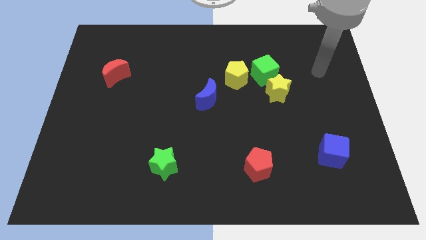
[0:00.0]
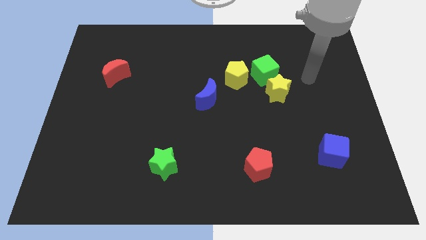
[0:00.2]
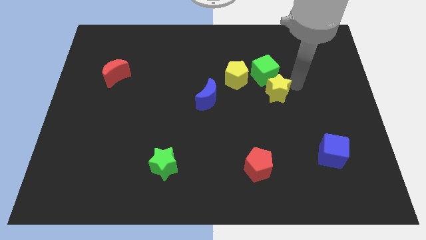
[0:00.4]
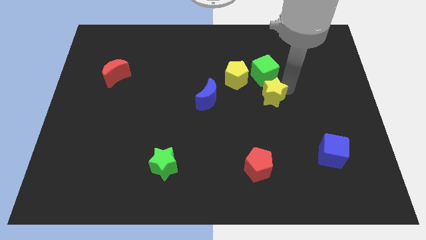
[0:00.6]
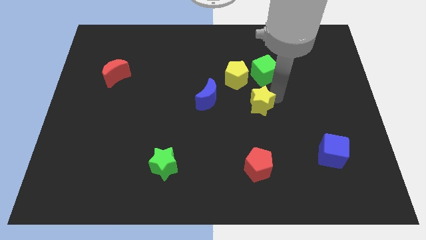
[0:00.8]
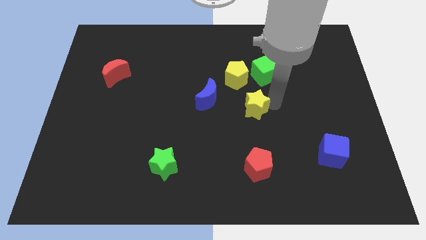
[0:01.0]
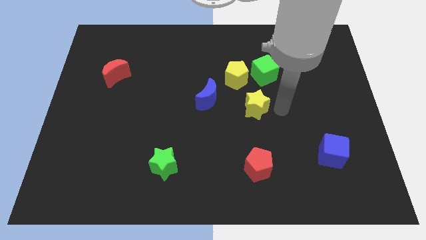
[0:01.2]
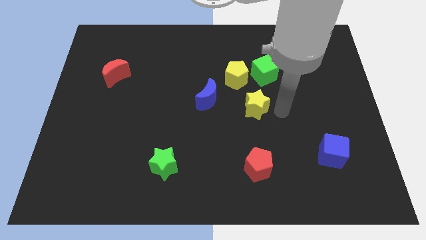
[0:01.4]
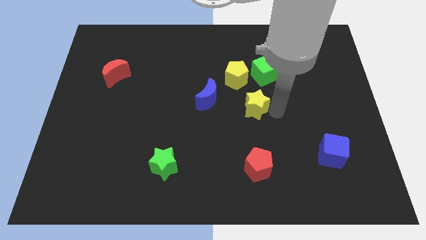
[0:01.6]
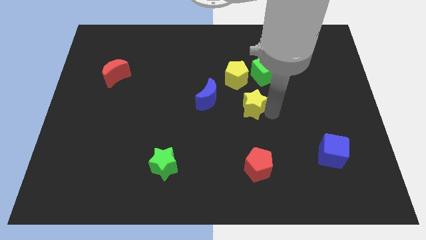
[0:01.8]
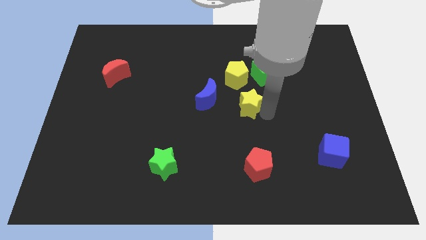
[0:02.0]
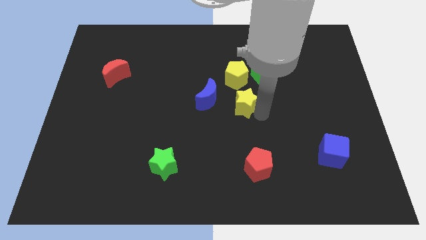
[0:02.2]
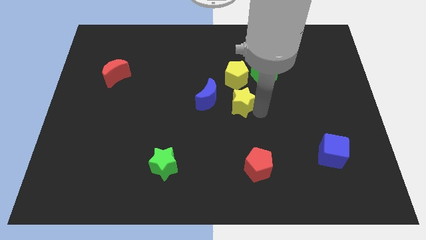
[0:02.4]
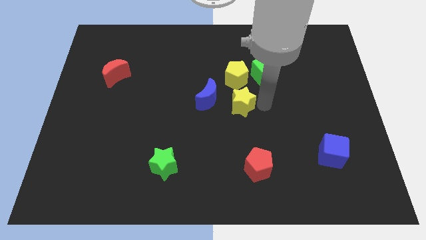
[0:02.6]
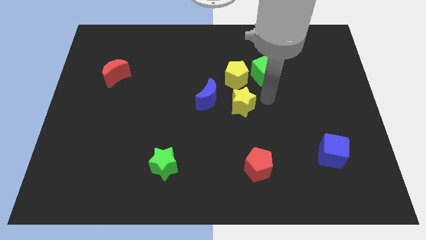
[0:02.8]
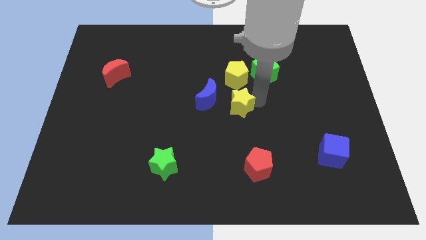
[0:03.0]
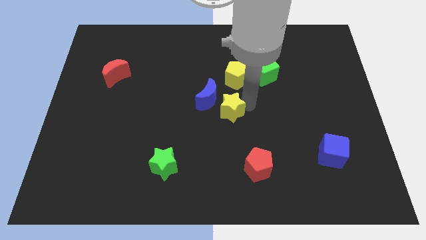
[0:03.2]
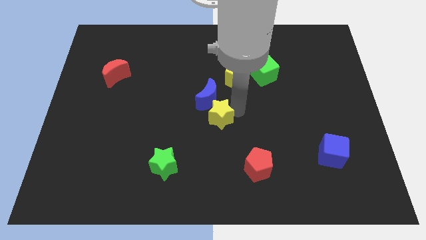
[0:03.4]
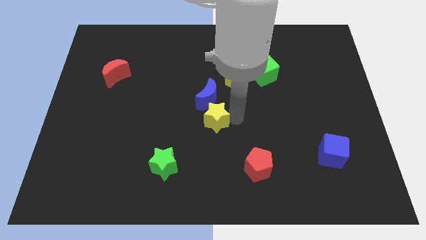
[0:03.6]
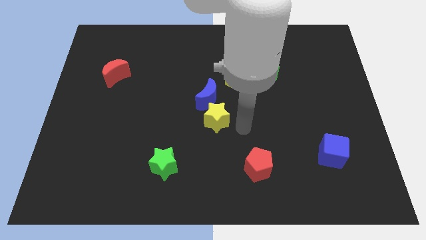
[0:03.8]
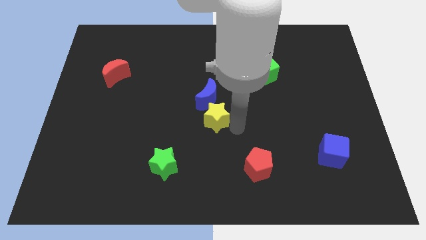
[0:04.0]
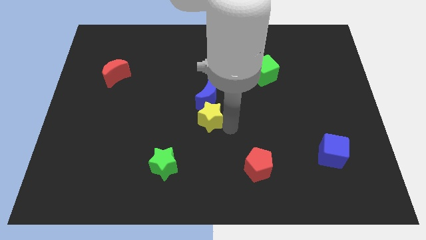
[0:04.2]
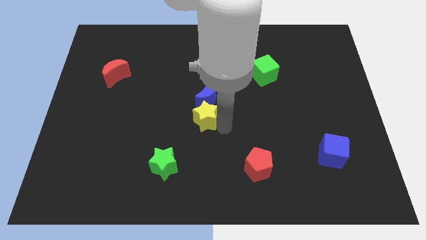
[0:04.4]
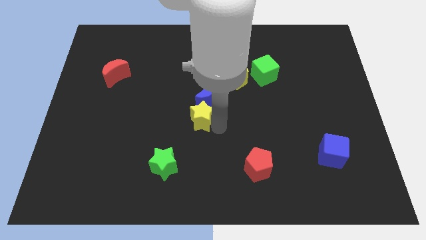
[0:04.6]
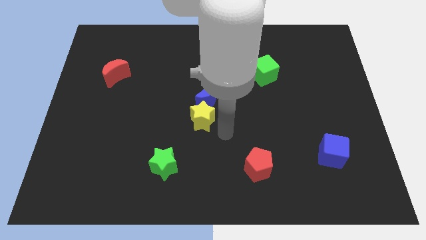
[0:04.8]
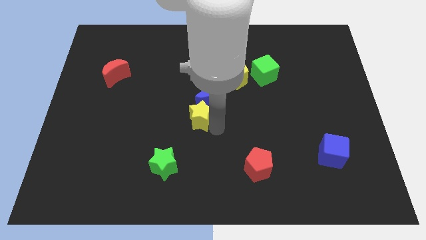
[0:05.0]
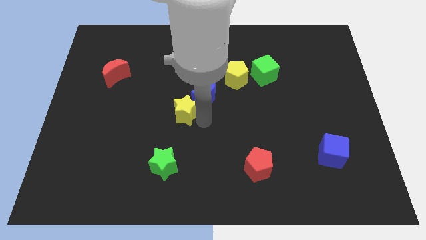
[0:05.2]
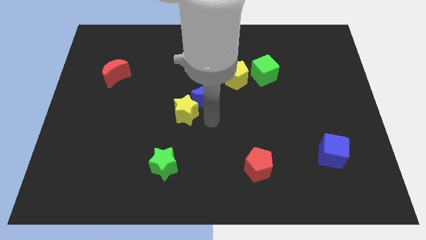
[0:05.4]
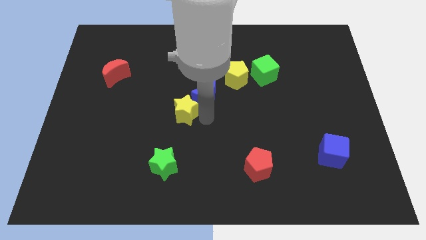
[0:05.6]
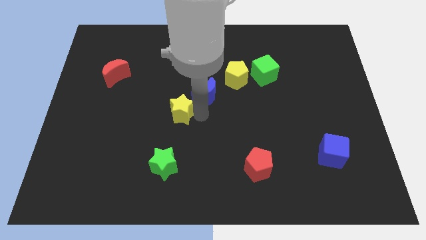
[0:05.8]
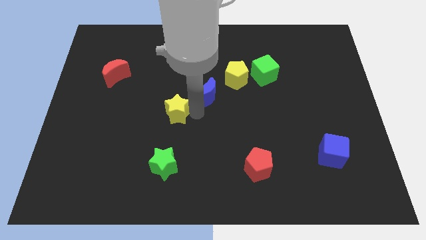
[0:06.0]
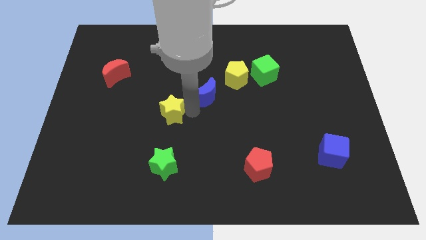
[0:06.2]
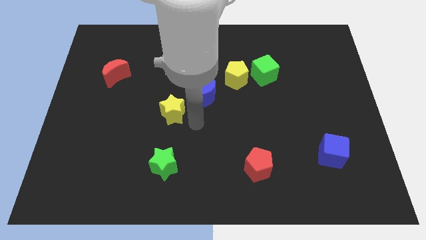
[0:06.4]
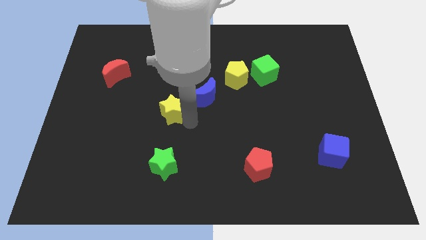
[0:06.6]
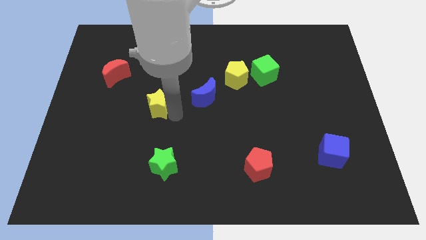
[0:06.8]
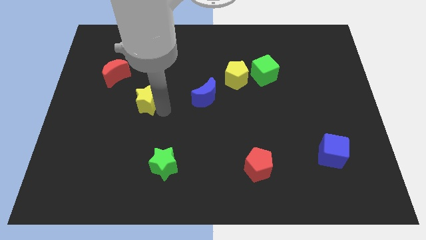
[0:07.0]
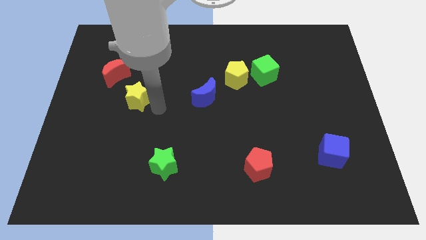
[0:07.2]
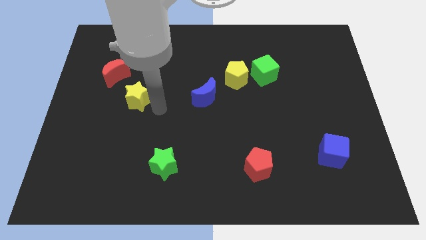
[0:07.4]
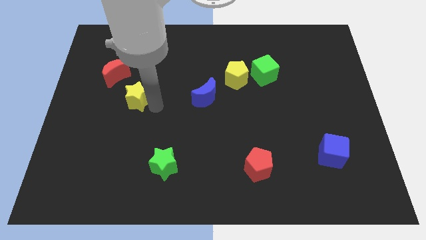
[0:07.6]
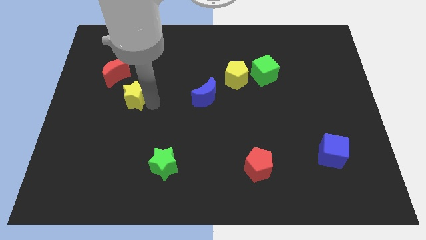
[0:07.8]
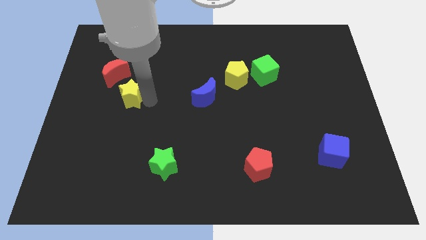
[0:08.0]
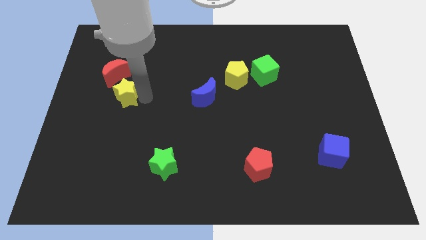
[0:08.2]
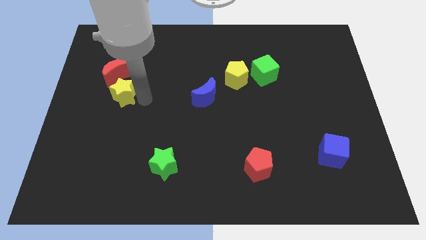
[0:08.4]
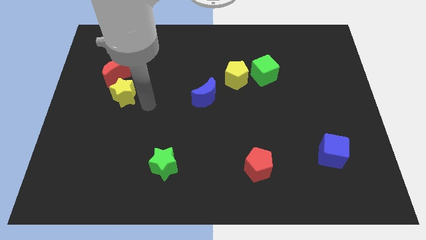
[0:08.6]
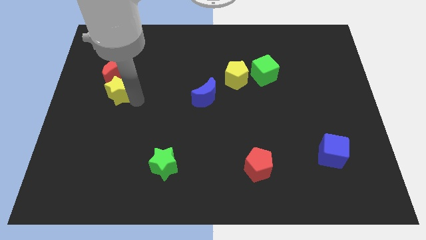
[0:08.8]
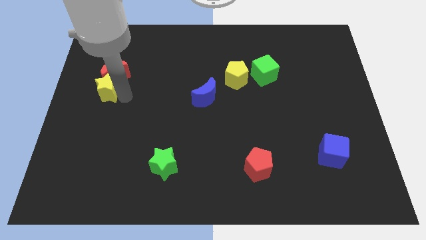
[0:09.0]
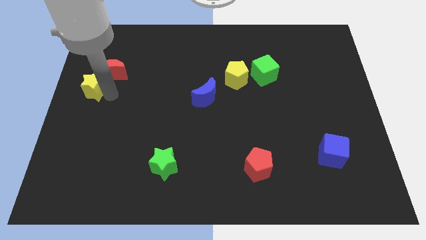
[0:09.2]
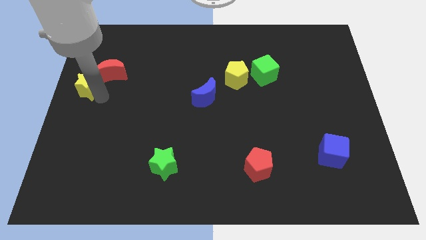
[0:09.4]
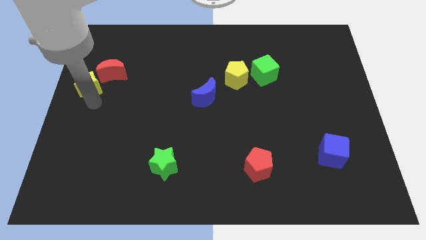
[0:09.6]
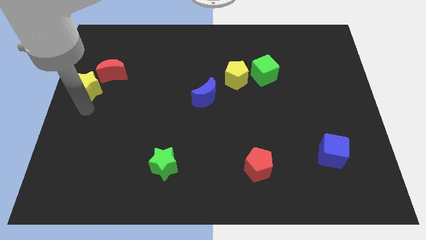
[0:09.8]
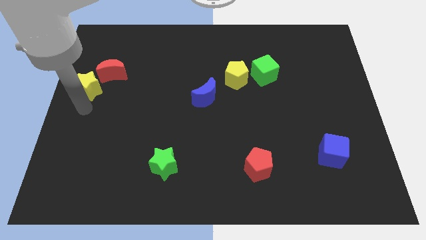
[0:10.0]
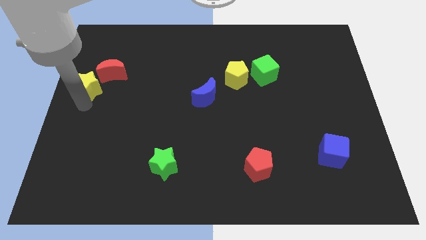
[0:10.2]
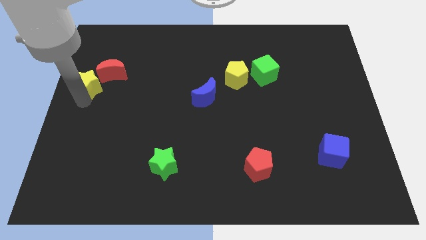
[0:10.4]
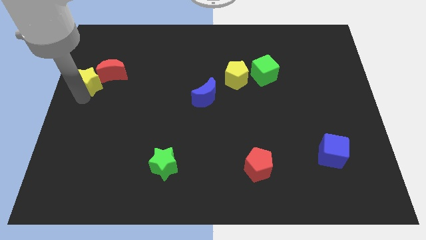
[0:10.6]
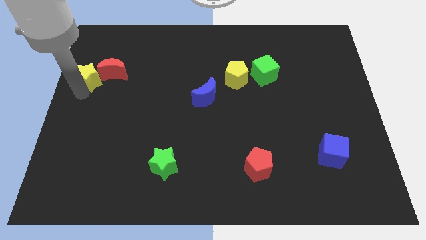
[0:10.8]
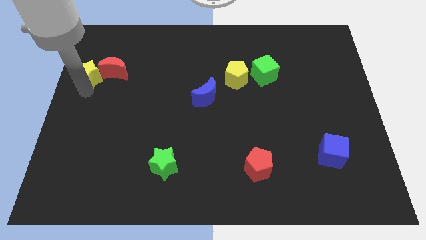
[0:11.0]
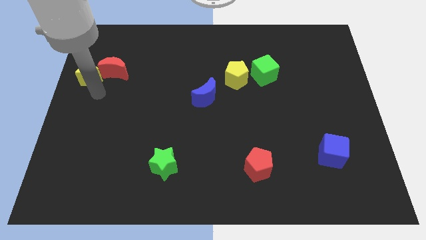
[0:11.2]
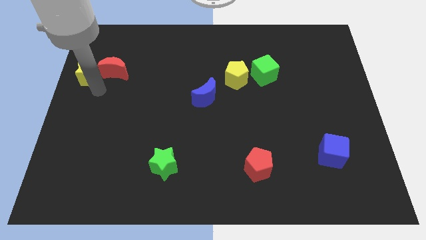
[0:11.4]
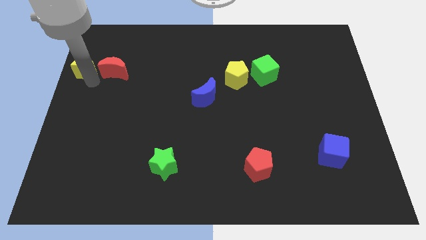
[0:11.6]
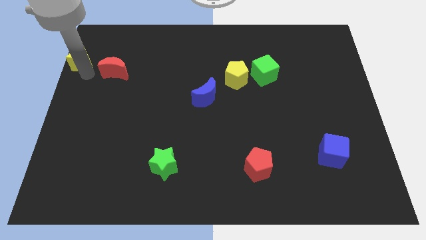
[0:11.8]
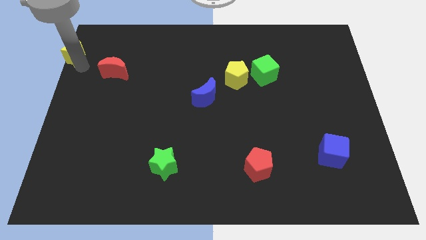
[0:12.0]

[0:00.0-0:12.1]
put the yellow star to the upper left corner
